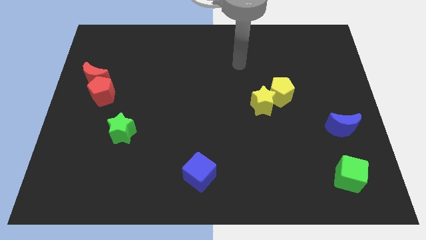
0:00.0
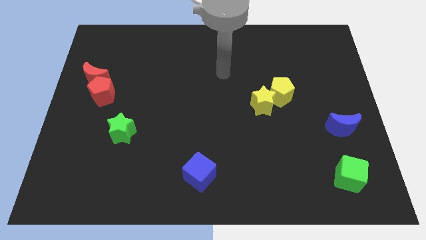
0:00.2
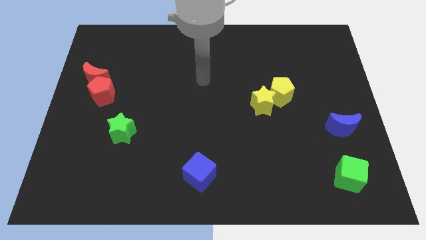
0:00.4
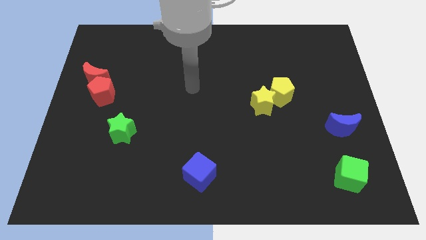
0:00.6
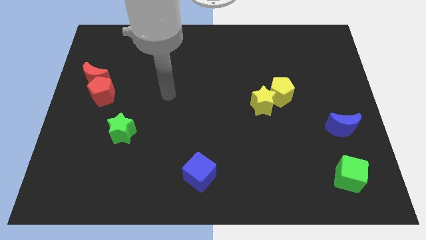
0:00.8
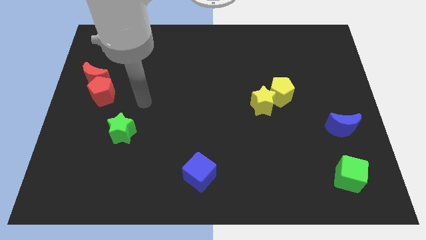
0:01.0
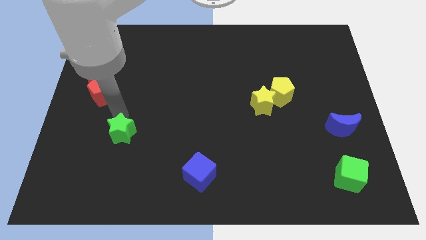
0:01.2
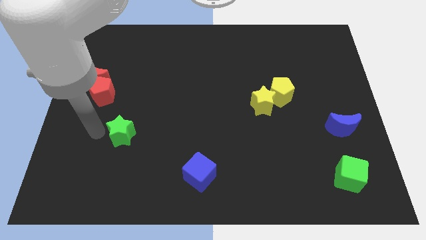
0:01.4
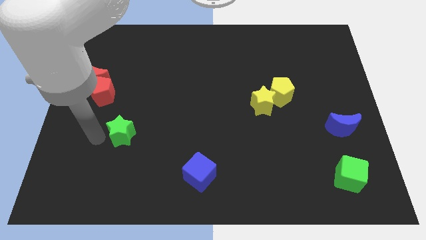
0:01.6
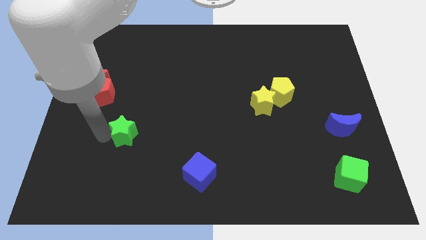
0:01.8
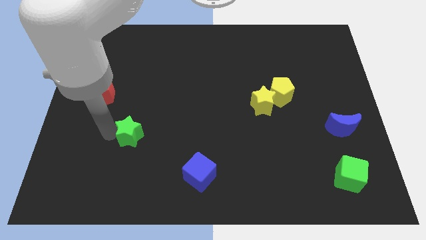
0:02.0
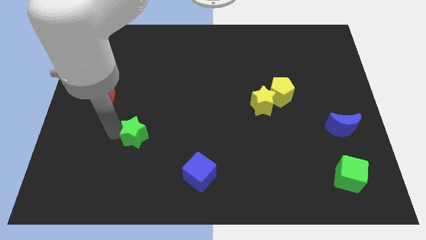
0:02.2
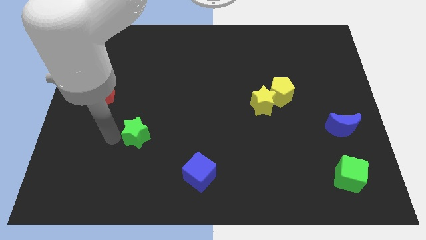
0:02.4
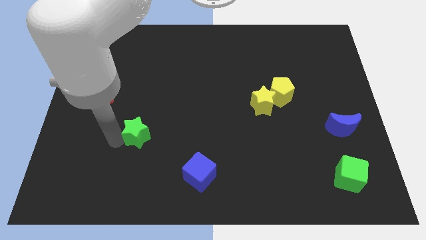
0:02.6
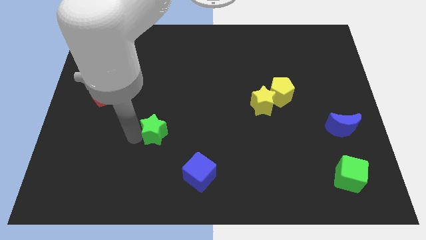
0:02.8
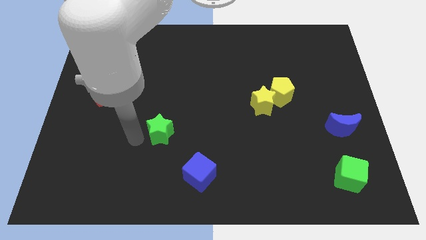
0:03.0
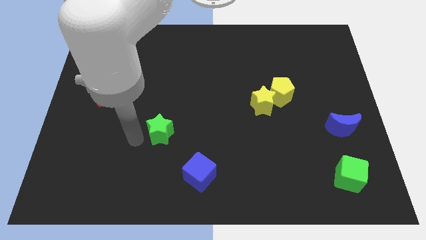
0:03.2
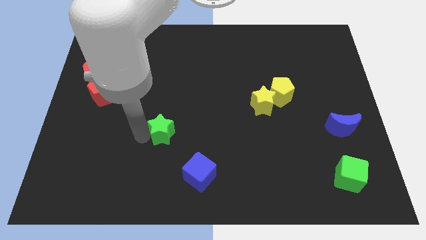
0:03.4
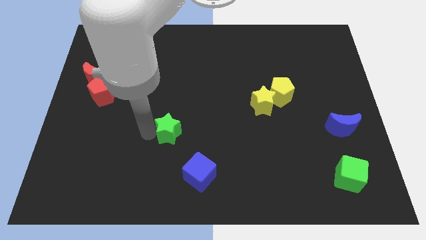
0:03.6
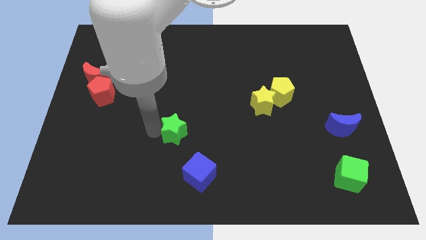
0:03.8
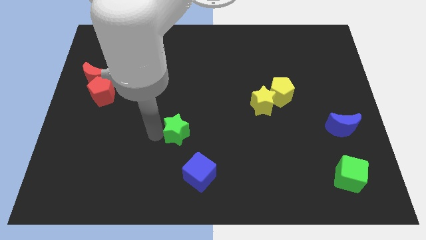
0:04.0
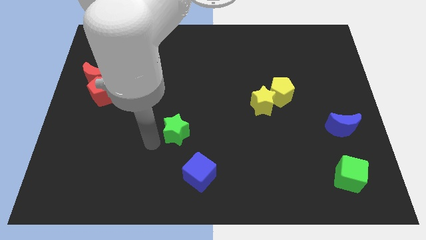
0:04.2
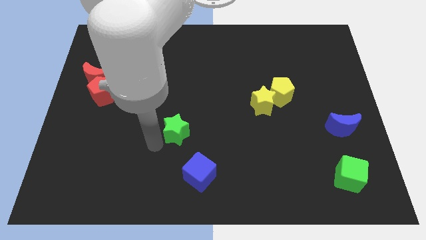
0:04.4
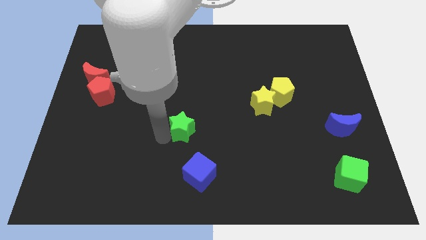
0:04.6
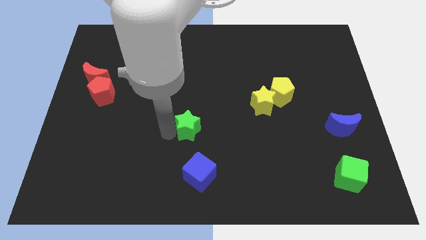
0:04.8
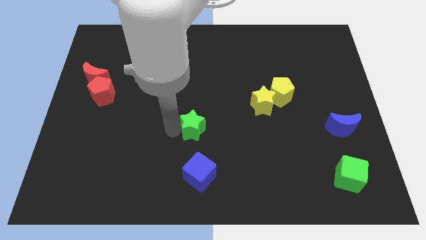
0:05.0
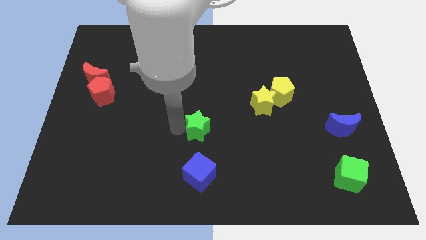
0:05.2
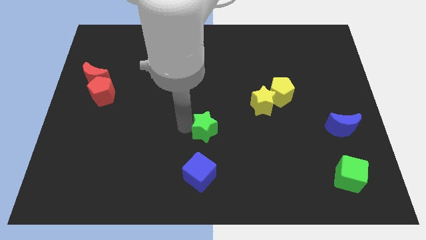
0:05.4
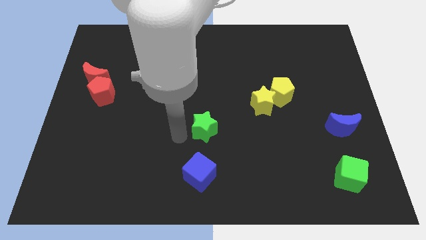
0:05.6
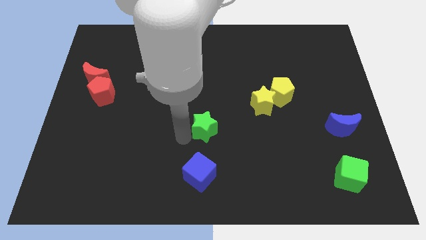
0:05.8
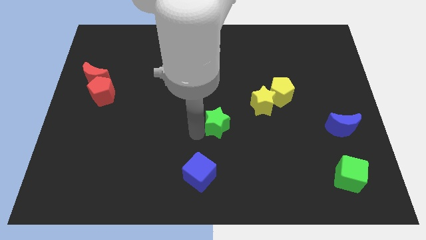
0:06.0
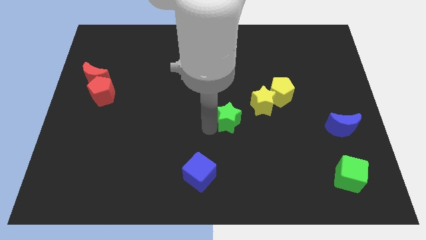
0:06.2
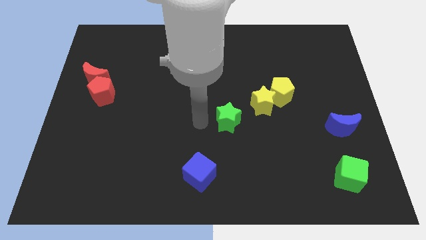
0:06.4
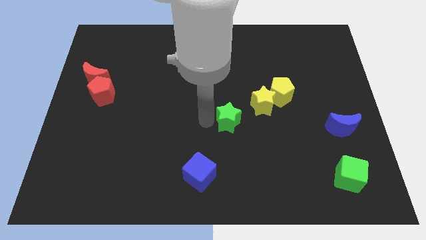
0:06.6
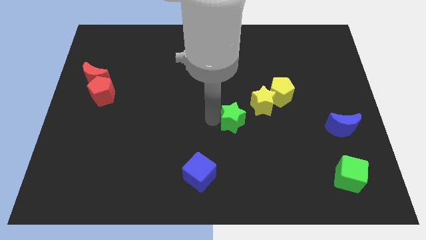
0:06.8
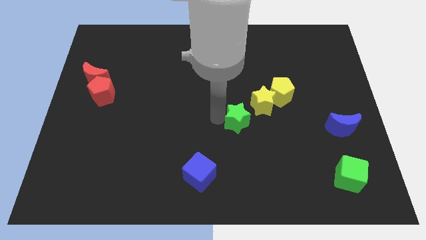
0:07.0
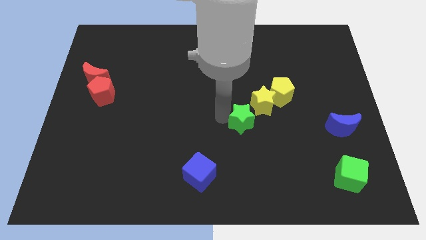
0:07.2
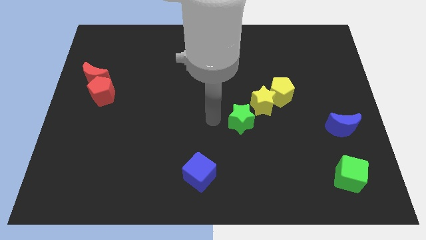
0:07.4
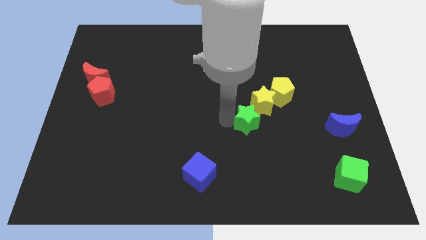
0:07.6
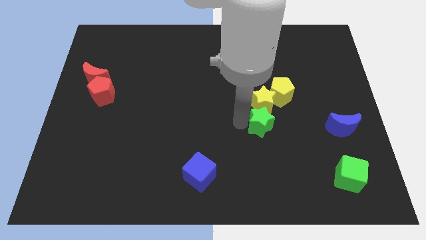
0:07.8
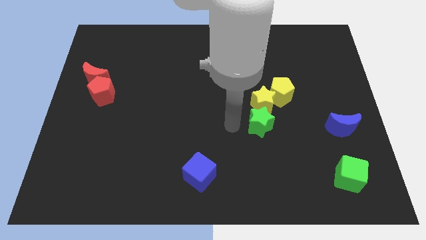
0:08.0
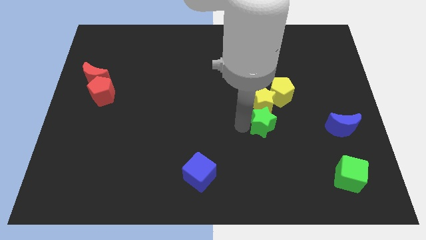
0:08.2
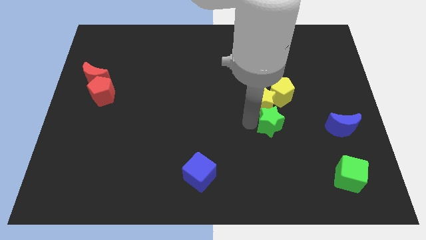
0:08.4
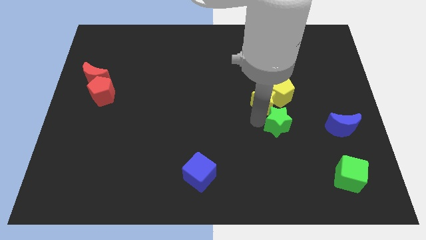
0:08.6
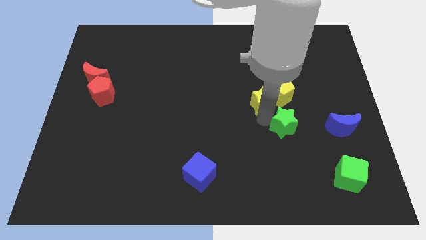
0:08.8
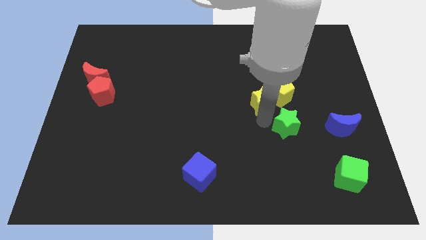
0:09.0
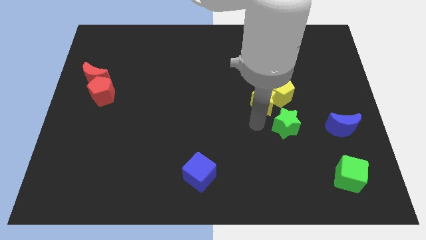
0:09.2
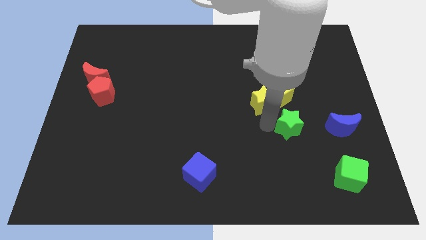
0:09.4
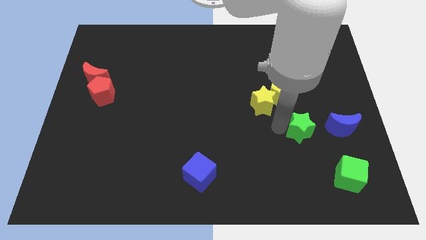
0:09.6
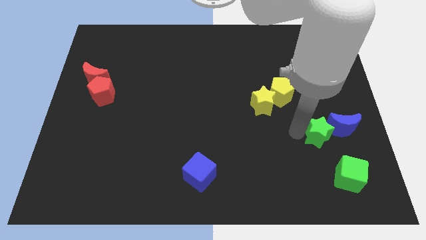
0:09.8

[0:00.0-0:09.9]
push the green star next to the blue moon

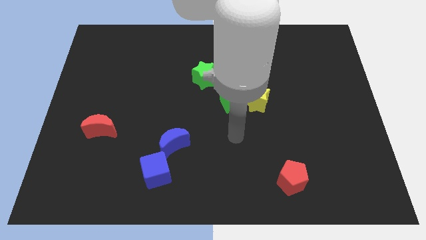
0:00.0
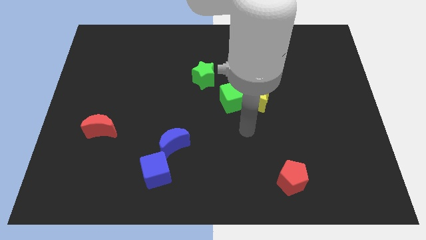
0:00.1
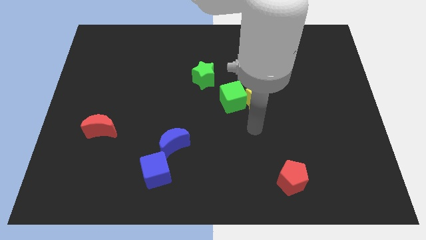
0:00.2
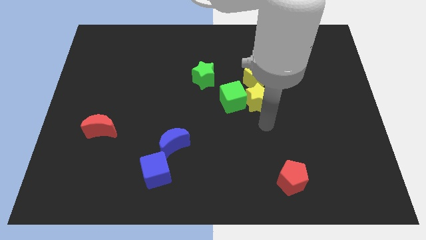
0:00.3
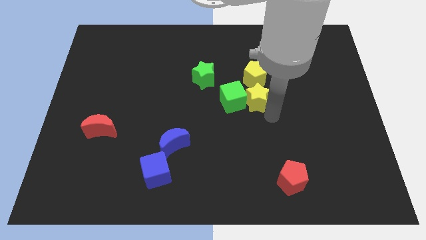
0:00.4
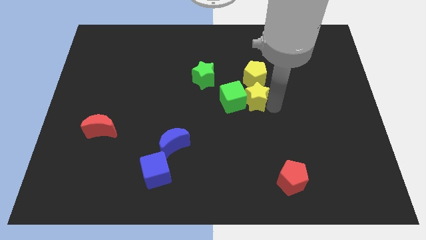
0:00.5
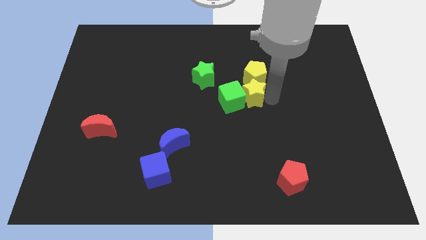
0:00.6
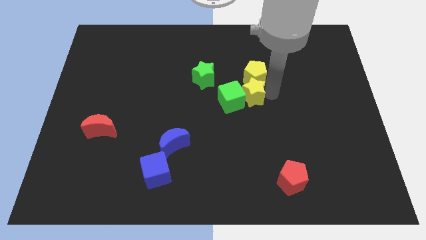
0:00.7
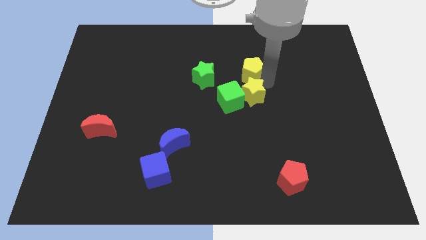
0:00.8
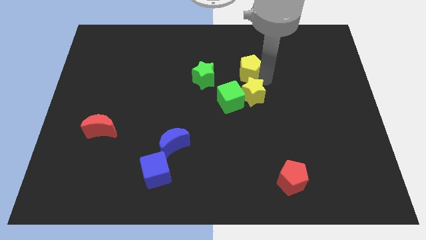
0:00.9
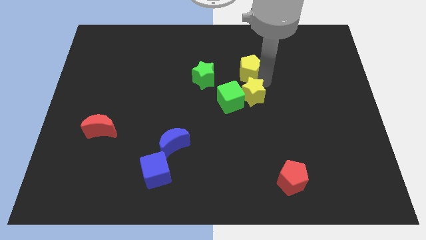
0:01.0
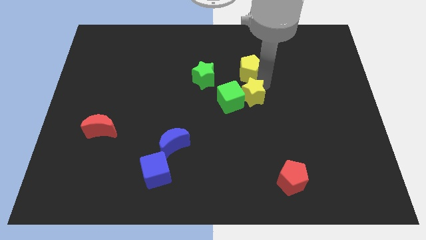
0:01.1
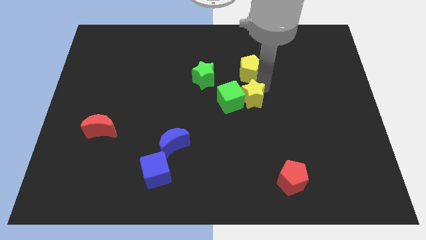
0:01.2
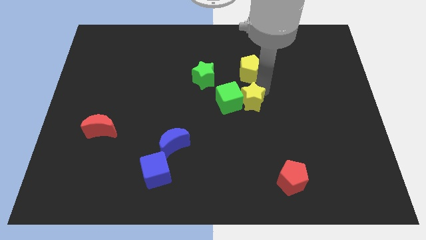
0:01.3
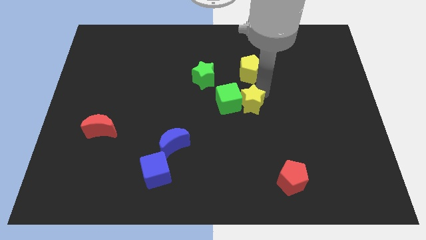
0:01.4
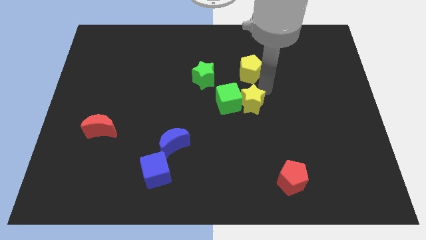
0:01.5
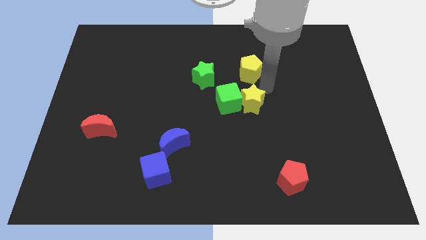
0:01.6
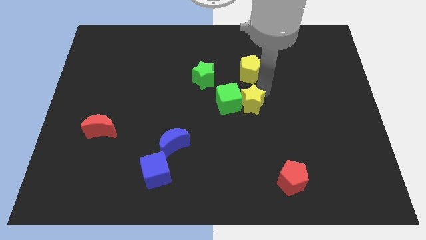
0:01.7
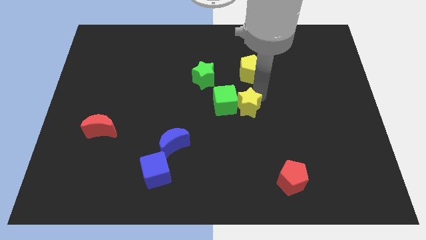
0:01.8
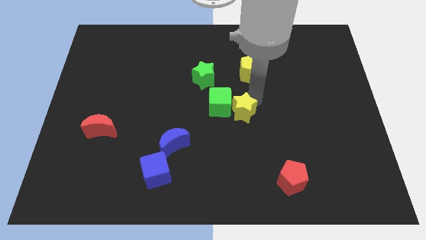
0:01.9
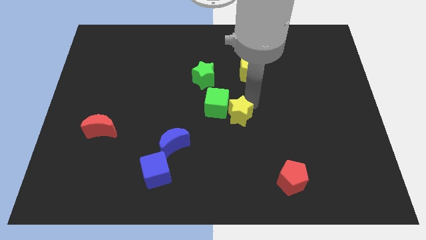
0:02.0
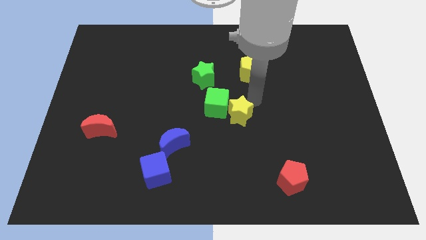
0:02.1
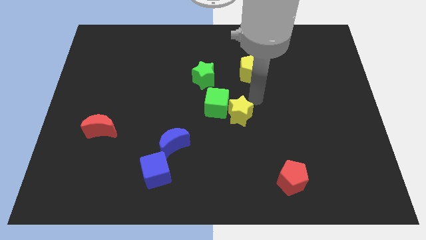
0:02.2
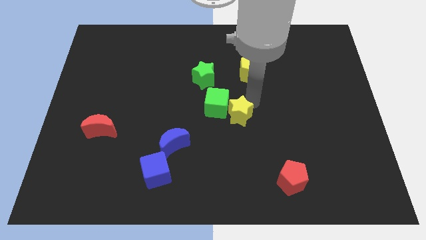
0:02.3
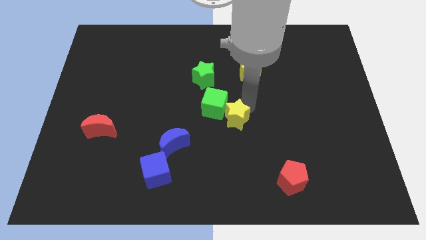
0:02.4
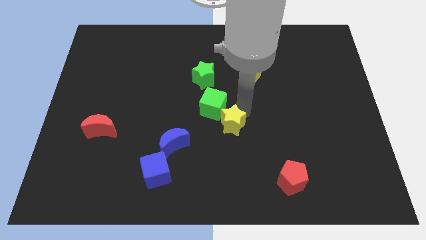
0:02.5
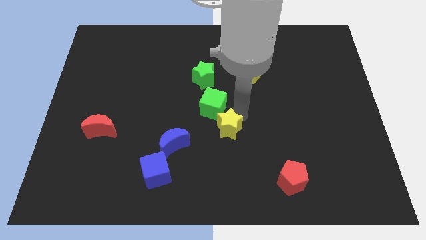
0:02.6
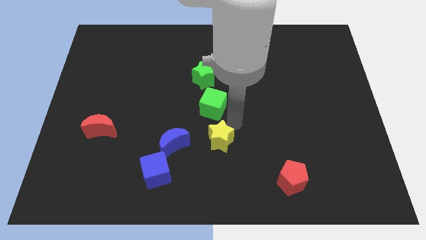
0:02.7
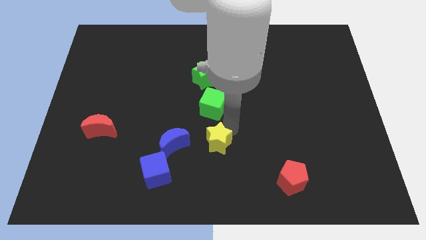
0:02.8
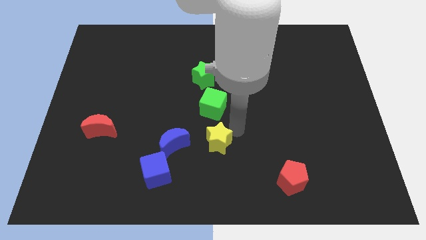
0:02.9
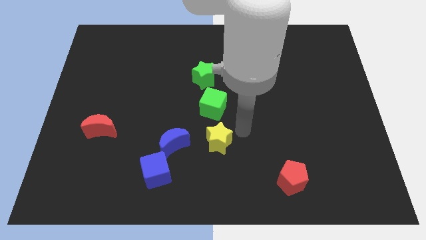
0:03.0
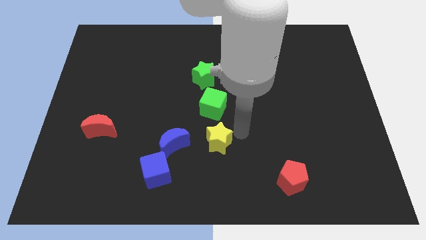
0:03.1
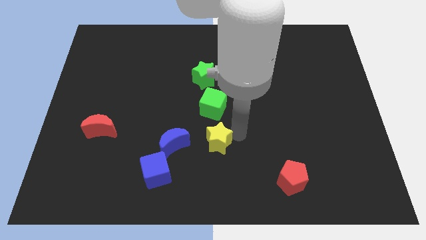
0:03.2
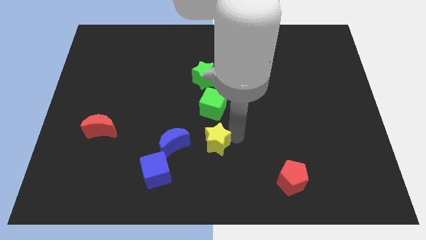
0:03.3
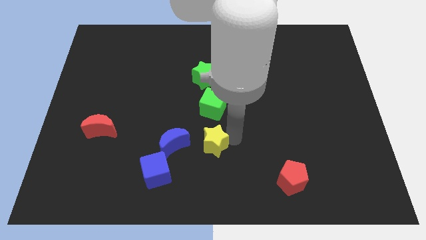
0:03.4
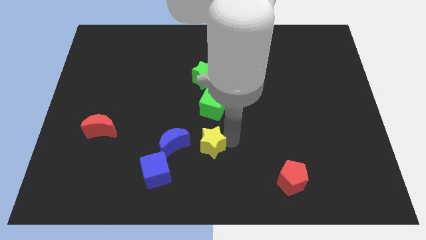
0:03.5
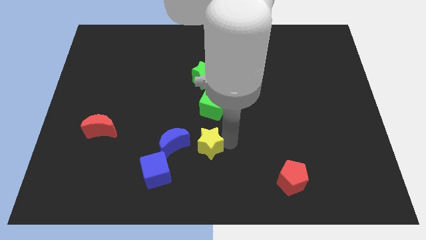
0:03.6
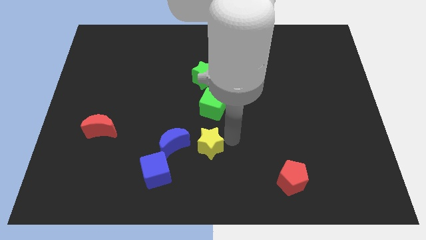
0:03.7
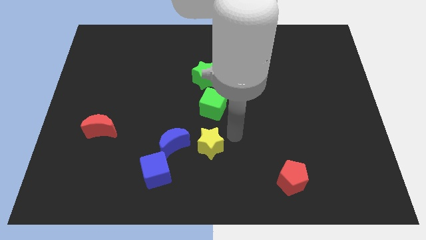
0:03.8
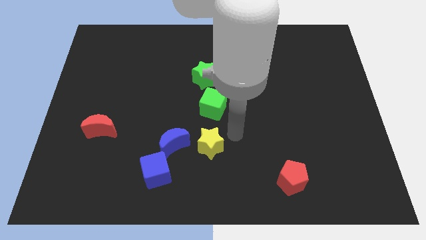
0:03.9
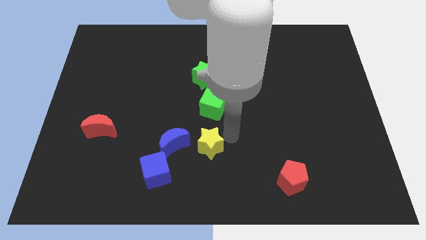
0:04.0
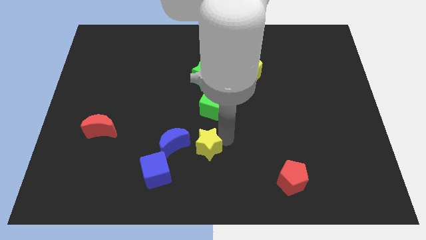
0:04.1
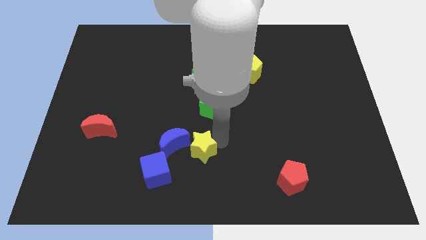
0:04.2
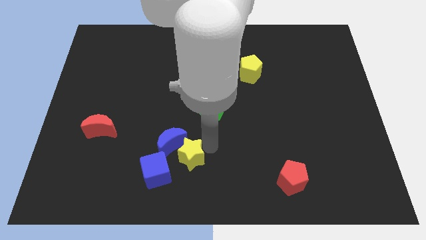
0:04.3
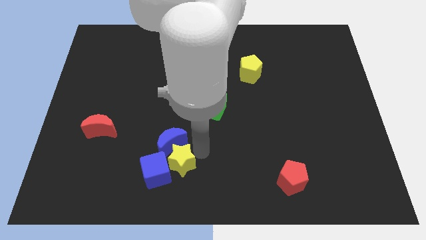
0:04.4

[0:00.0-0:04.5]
slide the yellow star to the blue cube
